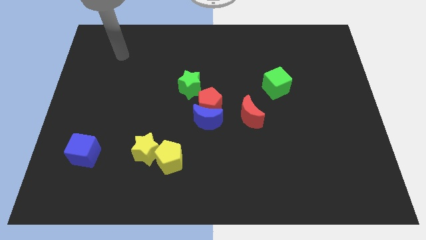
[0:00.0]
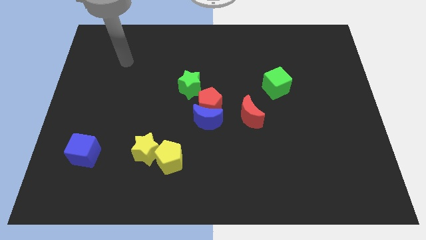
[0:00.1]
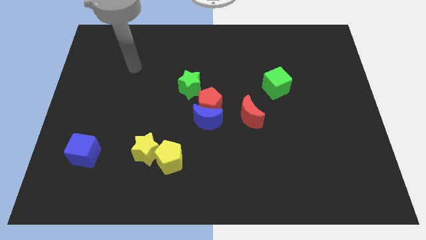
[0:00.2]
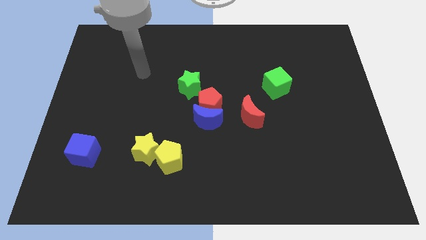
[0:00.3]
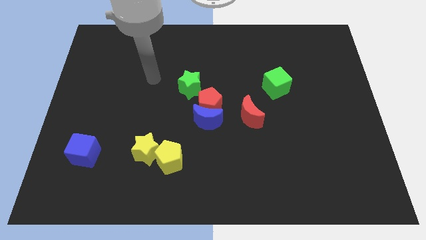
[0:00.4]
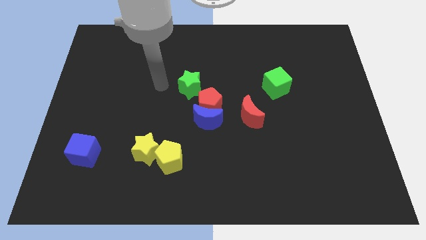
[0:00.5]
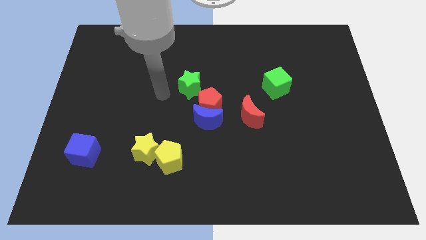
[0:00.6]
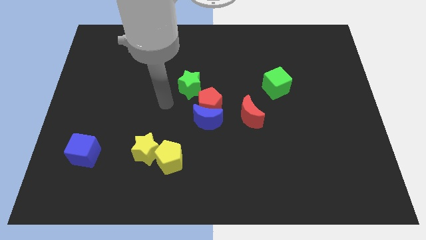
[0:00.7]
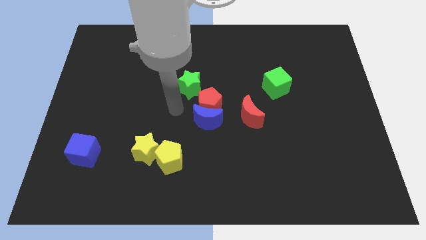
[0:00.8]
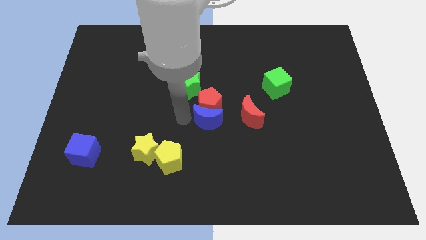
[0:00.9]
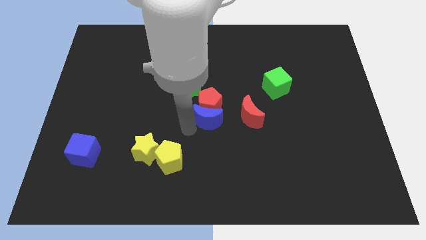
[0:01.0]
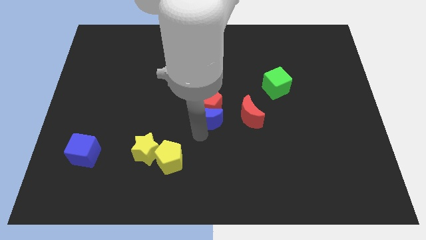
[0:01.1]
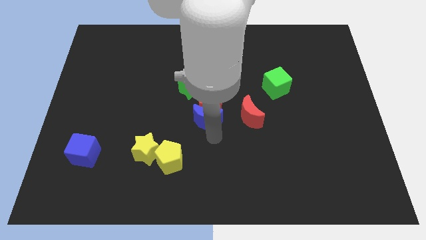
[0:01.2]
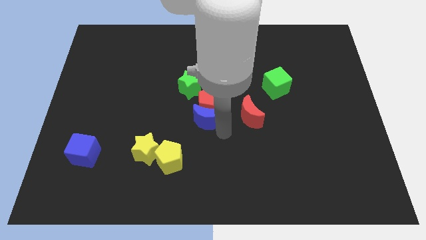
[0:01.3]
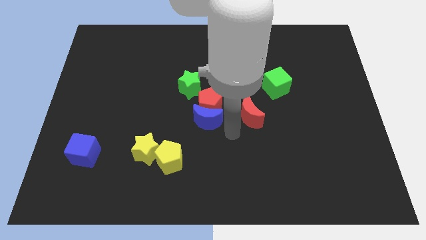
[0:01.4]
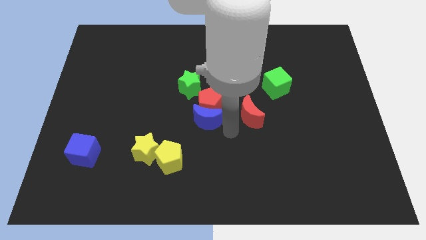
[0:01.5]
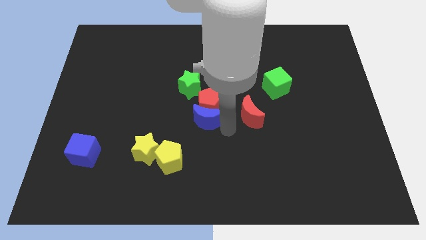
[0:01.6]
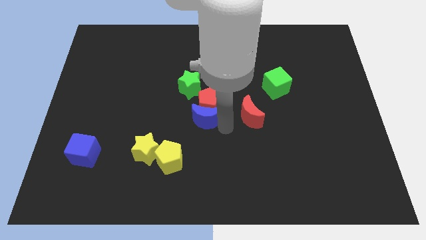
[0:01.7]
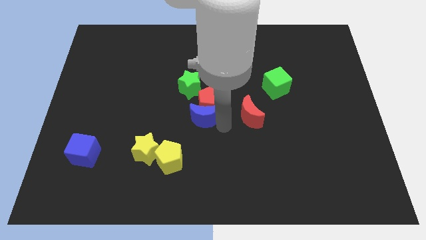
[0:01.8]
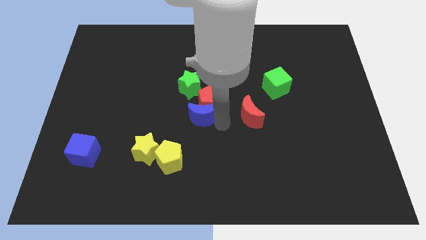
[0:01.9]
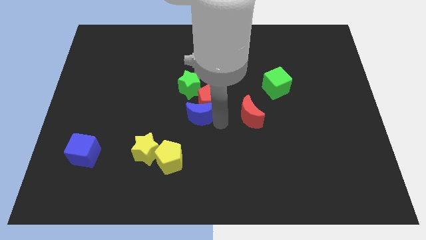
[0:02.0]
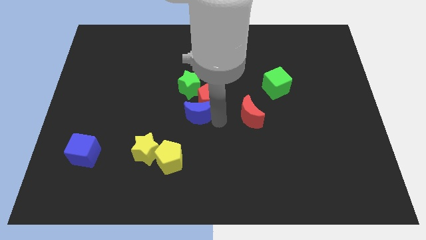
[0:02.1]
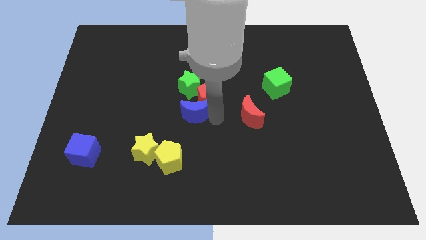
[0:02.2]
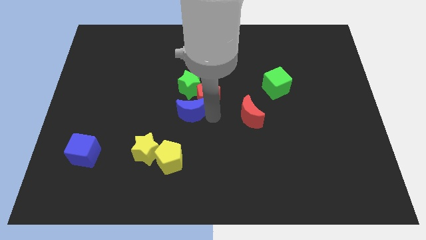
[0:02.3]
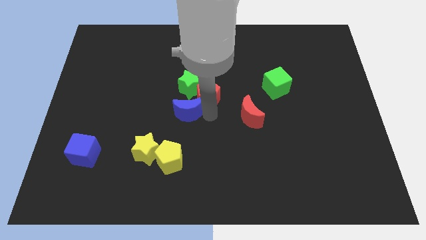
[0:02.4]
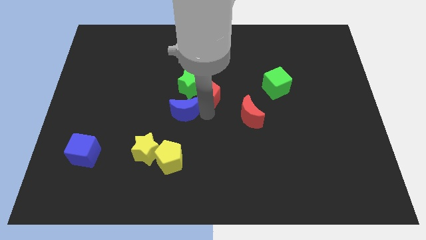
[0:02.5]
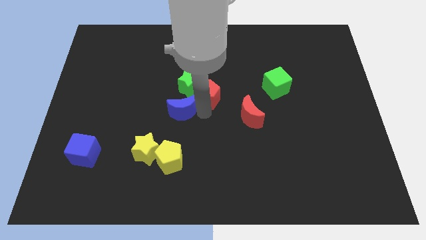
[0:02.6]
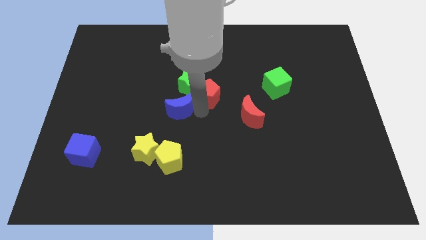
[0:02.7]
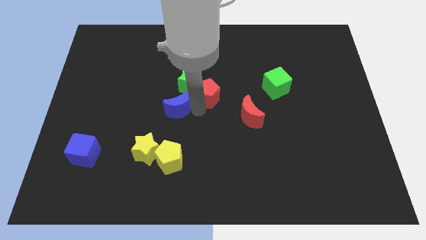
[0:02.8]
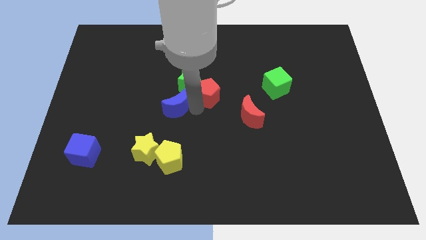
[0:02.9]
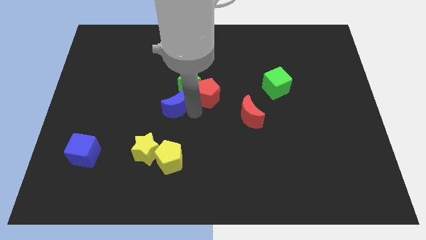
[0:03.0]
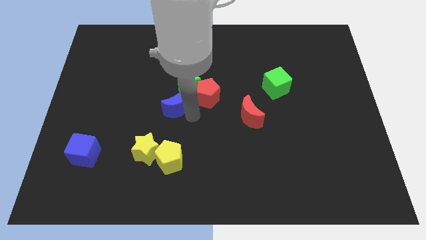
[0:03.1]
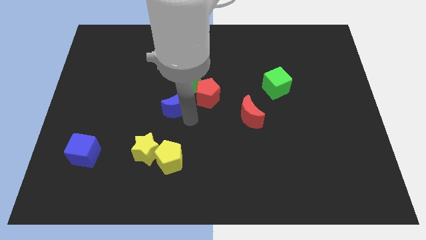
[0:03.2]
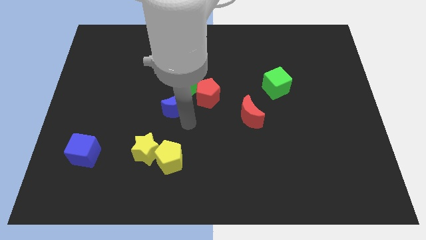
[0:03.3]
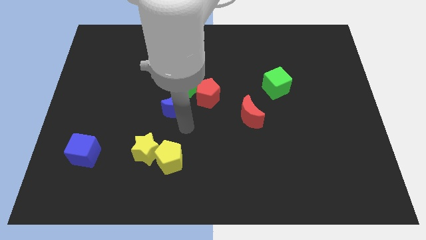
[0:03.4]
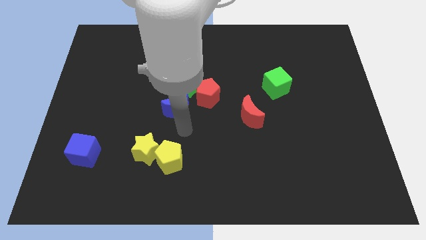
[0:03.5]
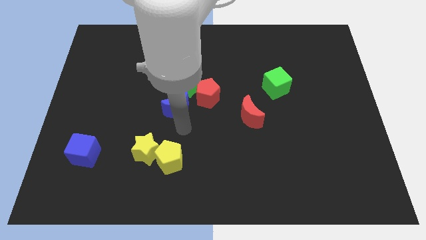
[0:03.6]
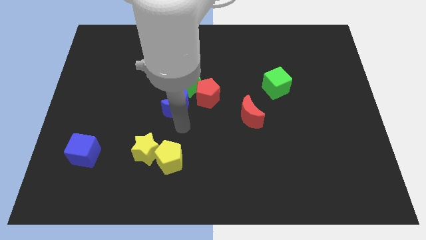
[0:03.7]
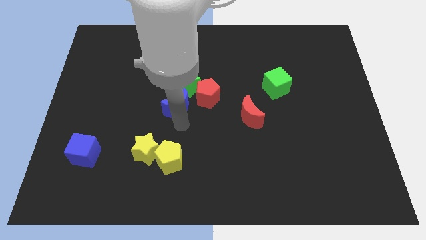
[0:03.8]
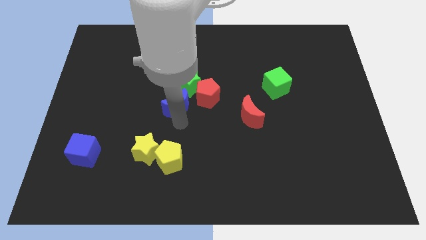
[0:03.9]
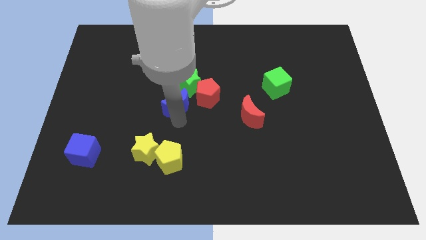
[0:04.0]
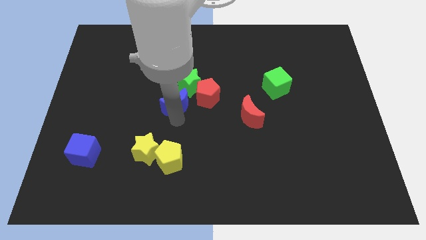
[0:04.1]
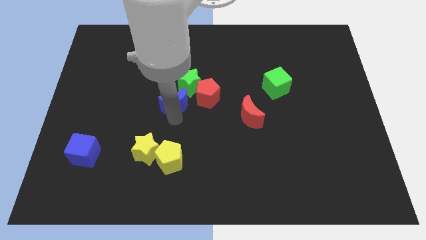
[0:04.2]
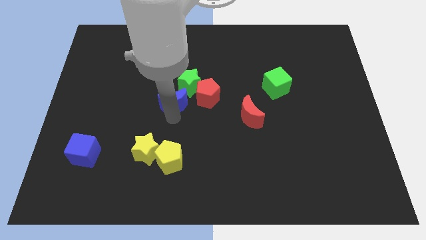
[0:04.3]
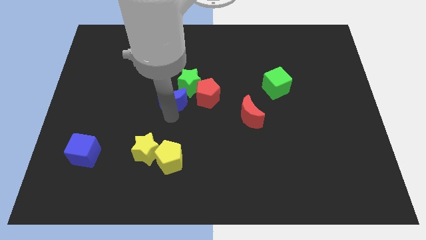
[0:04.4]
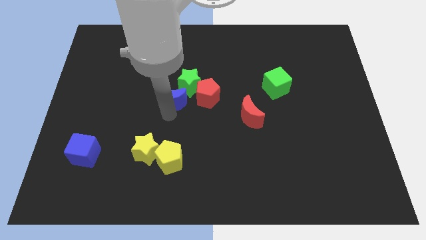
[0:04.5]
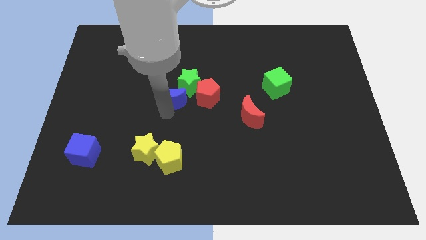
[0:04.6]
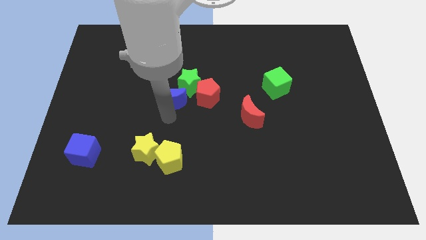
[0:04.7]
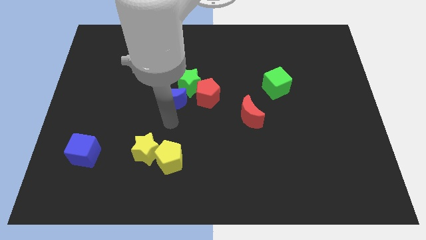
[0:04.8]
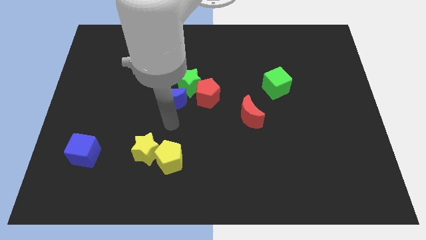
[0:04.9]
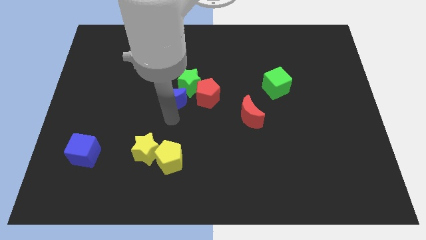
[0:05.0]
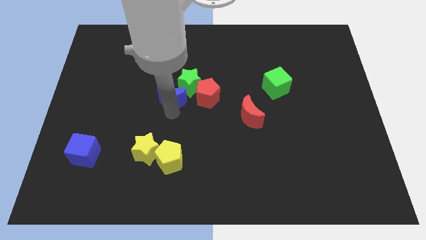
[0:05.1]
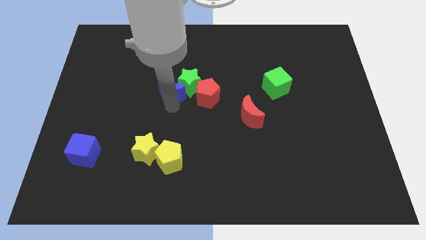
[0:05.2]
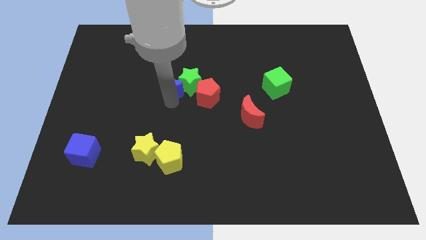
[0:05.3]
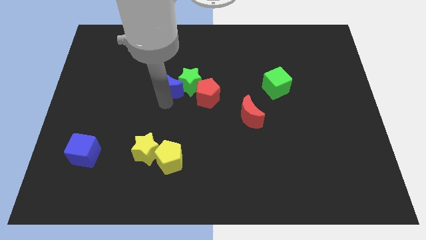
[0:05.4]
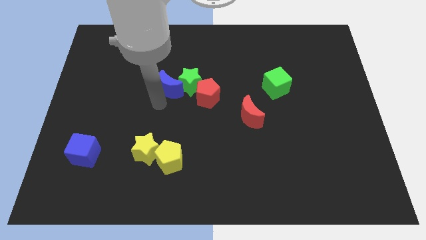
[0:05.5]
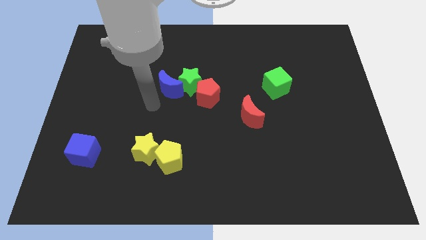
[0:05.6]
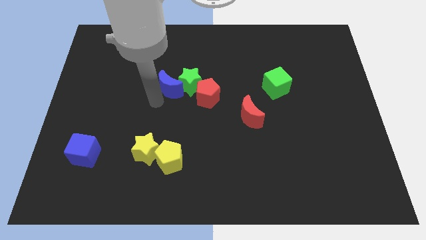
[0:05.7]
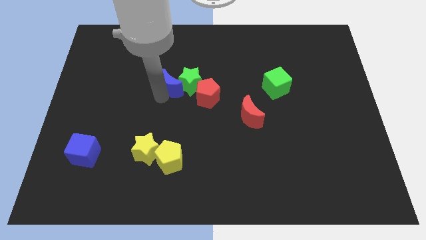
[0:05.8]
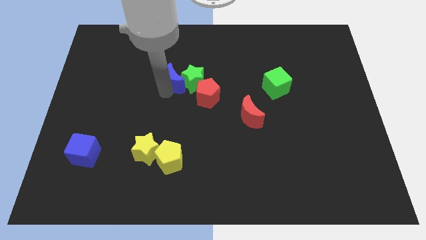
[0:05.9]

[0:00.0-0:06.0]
slightly move the blue moon upwards

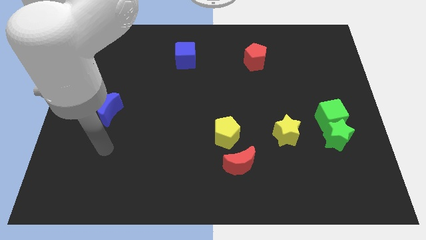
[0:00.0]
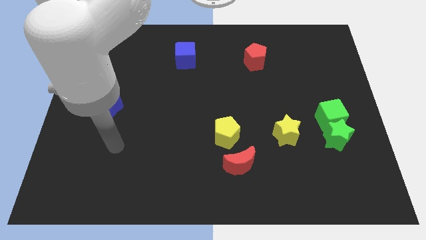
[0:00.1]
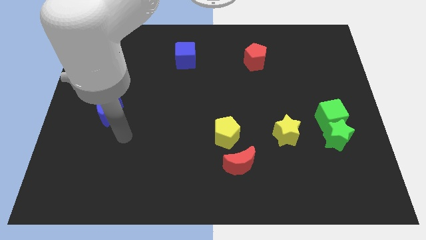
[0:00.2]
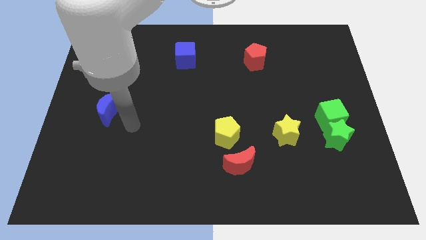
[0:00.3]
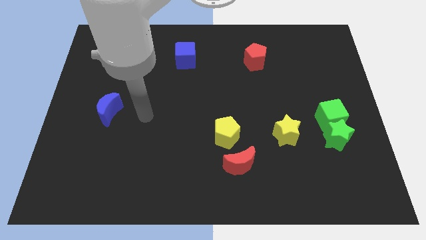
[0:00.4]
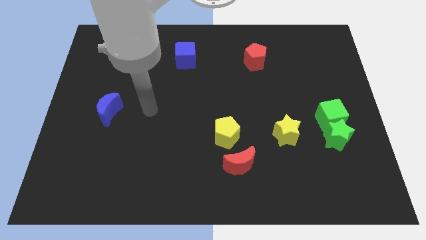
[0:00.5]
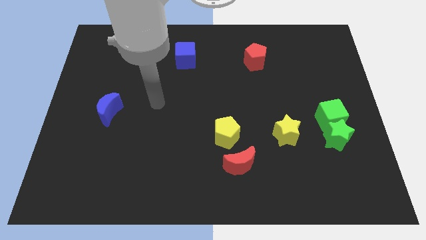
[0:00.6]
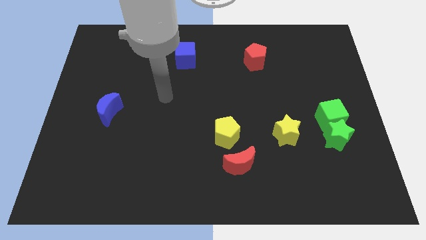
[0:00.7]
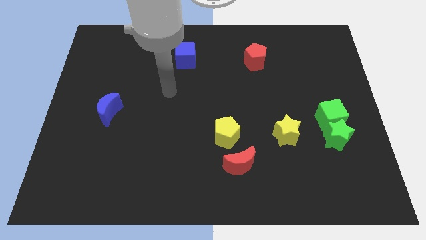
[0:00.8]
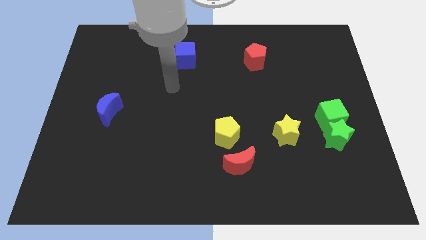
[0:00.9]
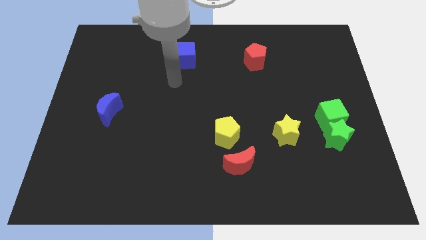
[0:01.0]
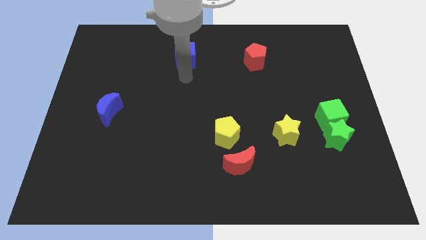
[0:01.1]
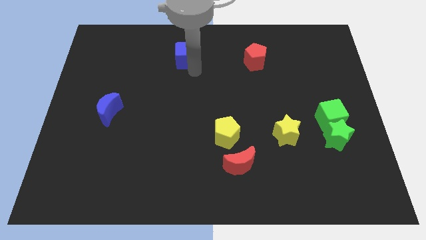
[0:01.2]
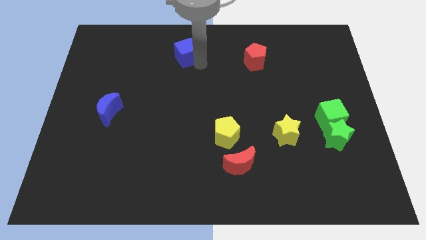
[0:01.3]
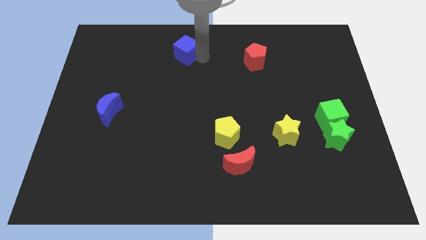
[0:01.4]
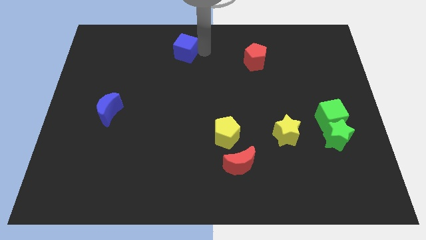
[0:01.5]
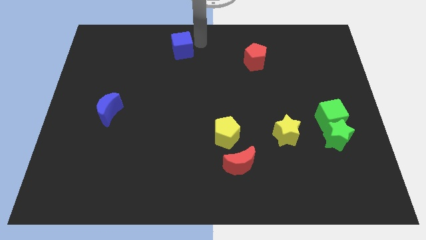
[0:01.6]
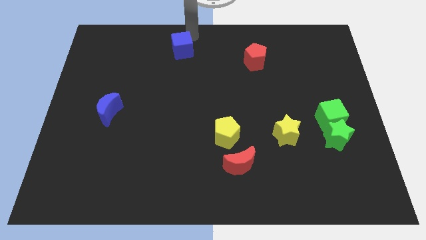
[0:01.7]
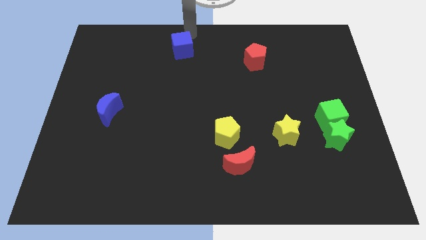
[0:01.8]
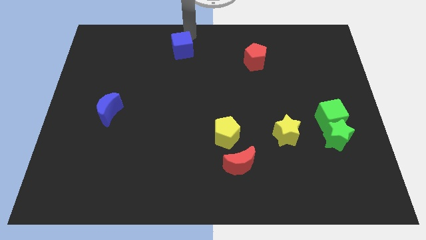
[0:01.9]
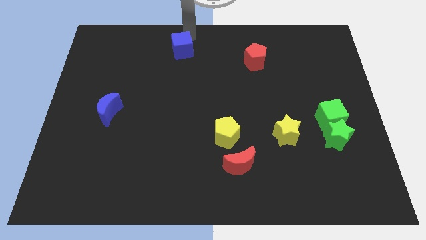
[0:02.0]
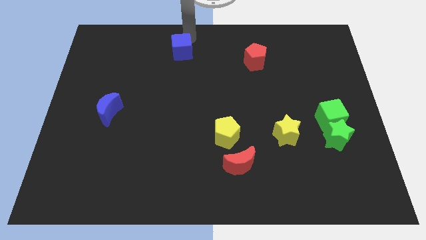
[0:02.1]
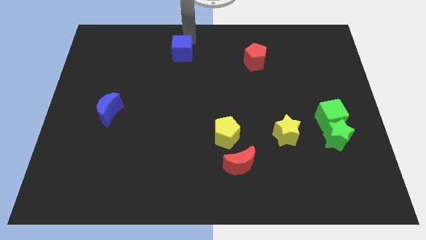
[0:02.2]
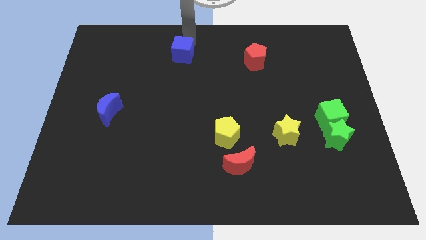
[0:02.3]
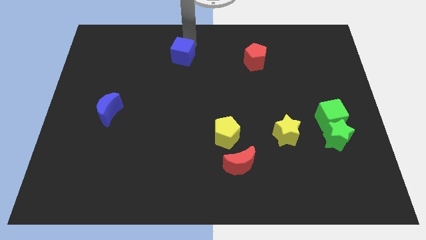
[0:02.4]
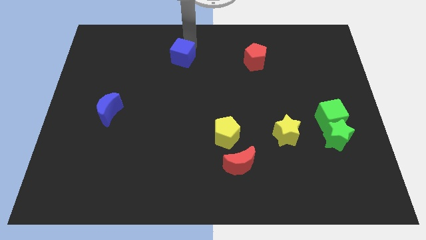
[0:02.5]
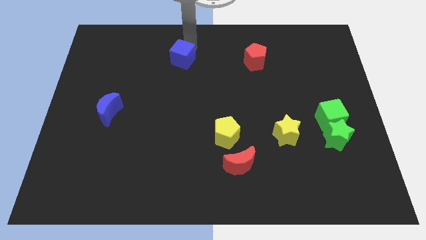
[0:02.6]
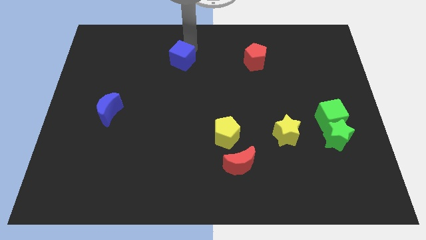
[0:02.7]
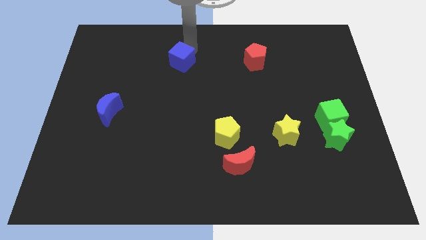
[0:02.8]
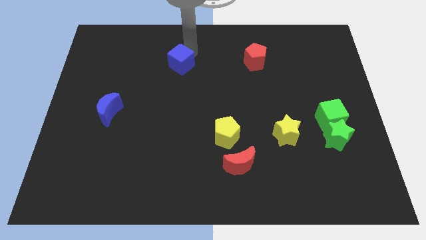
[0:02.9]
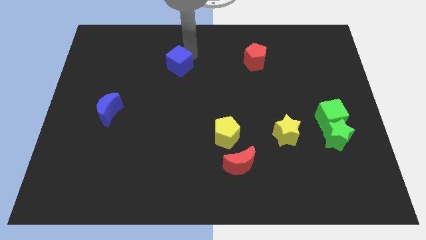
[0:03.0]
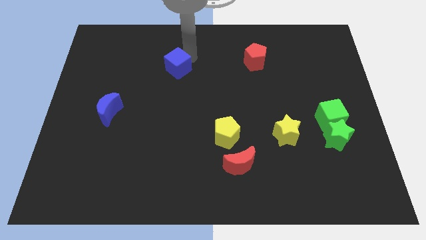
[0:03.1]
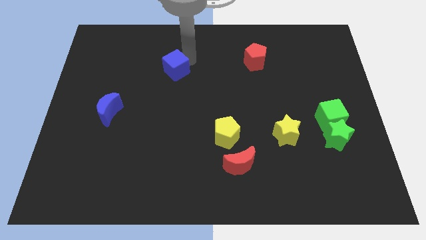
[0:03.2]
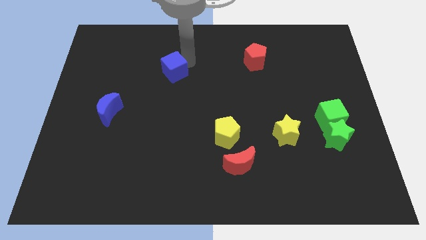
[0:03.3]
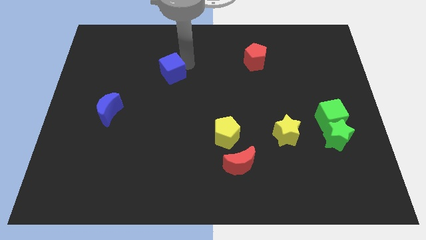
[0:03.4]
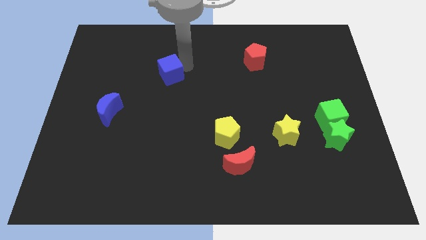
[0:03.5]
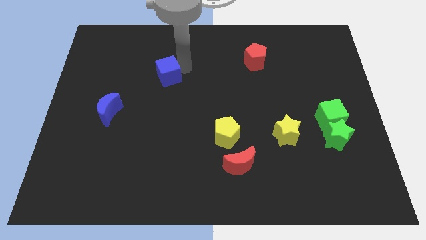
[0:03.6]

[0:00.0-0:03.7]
slightly move the blue cube down and then left
